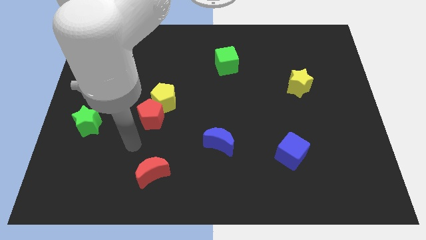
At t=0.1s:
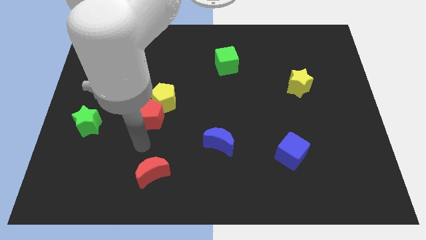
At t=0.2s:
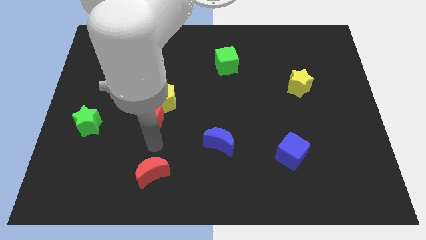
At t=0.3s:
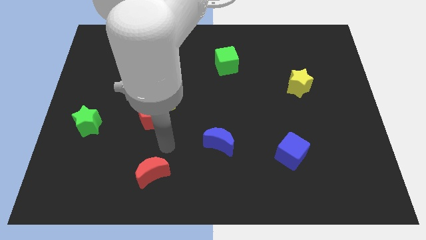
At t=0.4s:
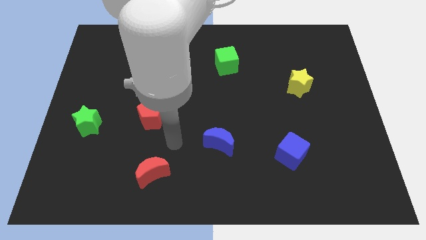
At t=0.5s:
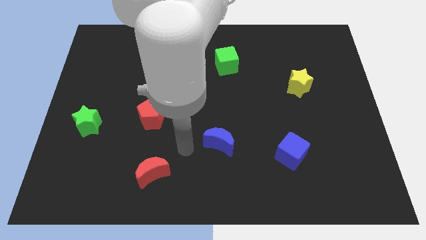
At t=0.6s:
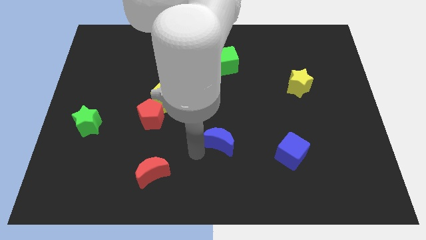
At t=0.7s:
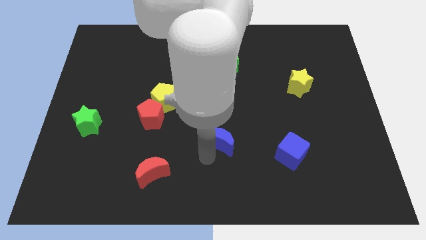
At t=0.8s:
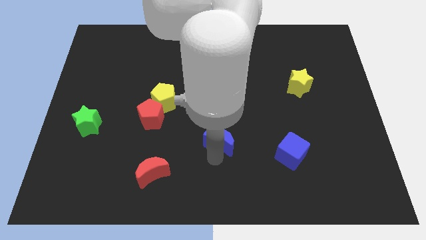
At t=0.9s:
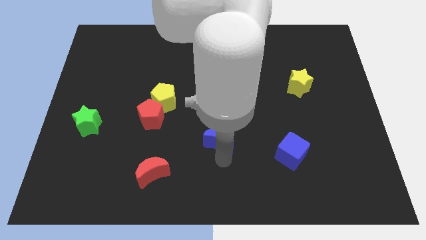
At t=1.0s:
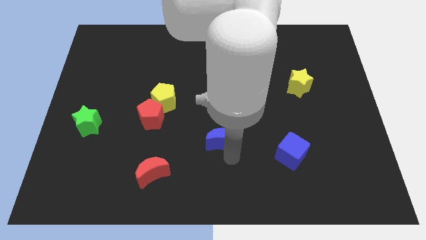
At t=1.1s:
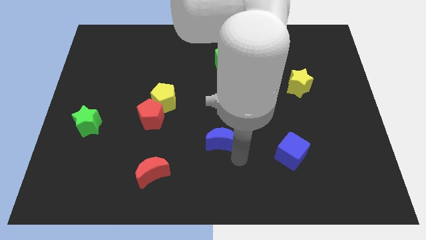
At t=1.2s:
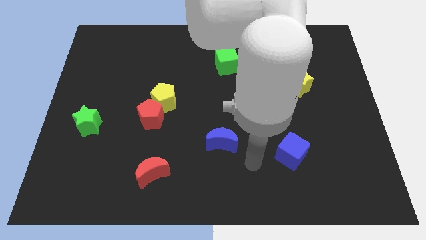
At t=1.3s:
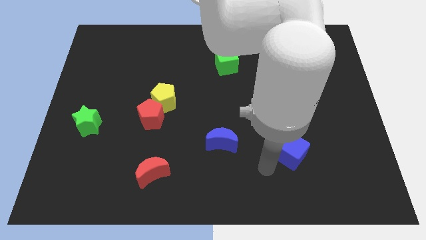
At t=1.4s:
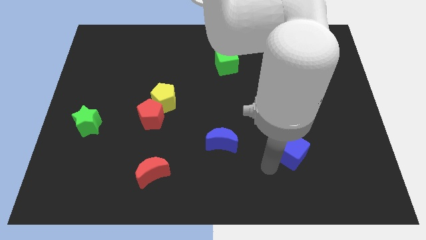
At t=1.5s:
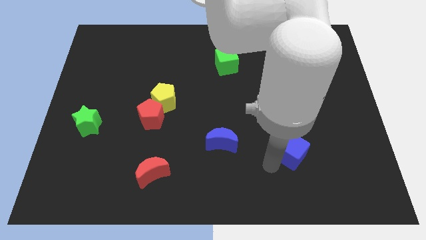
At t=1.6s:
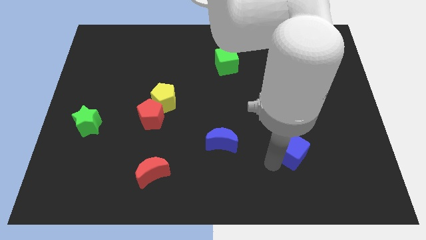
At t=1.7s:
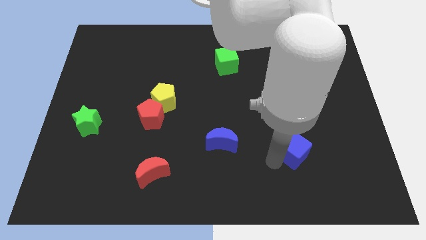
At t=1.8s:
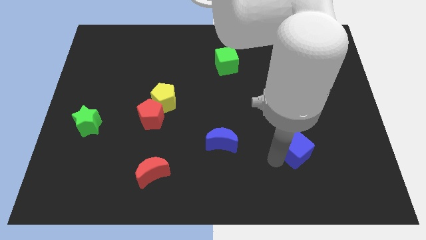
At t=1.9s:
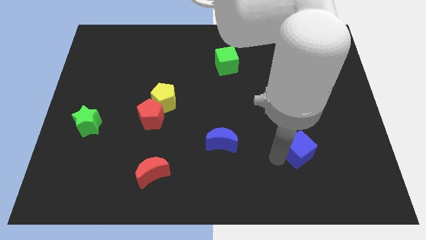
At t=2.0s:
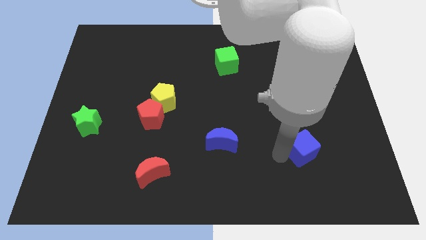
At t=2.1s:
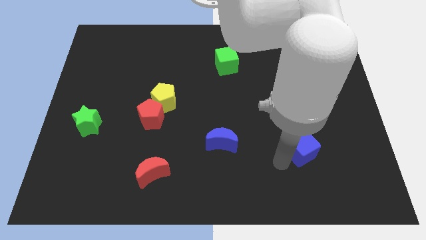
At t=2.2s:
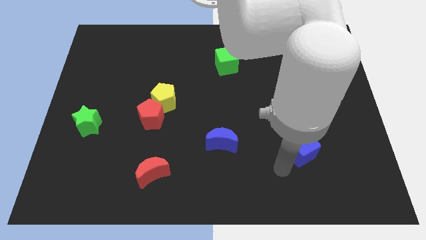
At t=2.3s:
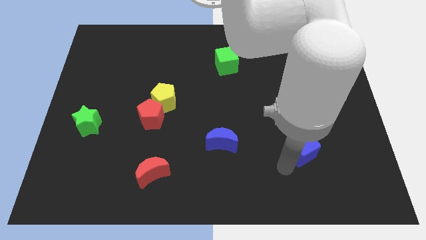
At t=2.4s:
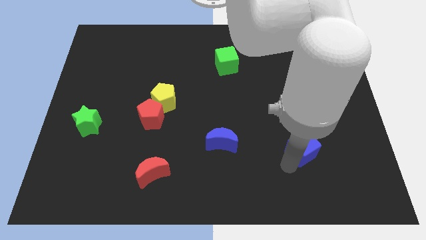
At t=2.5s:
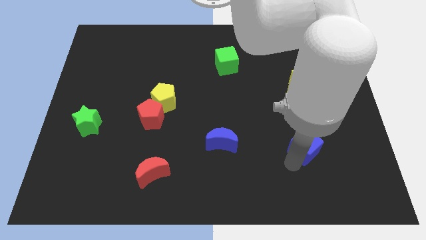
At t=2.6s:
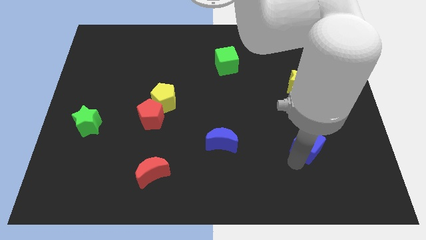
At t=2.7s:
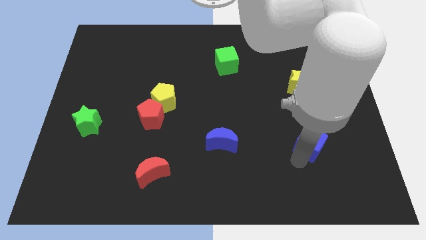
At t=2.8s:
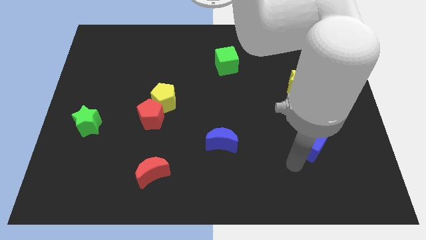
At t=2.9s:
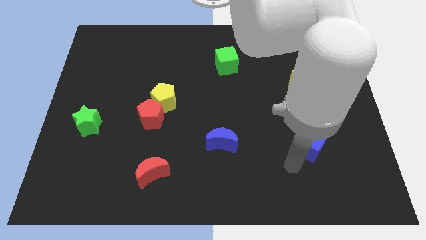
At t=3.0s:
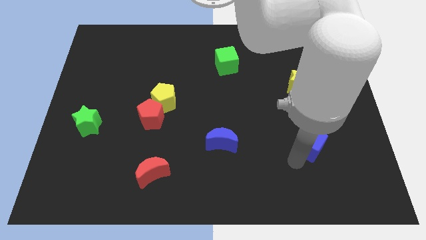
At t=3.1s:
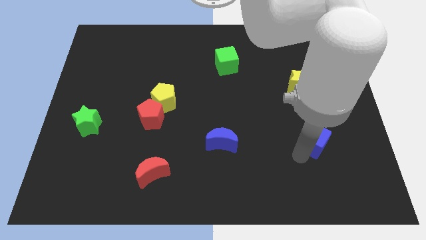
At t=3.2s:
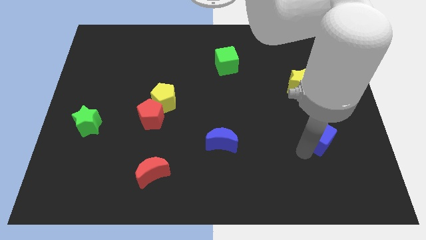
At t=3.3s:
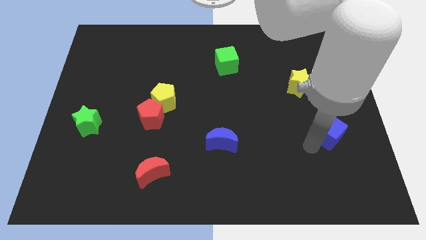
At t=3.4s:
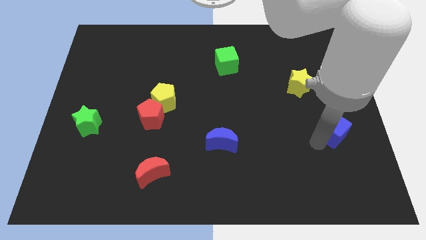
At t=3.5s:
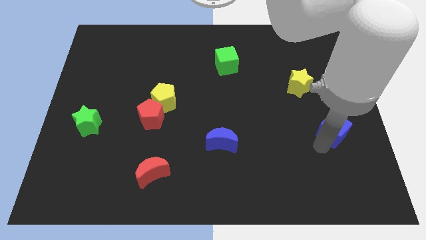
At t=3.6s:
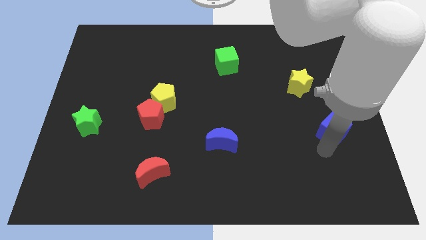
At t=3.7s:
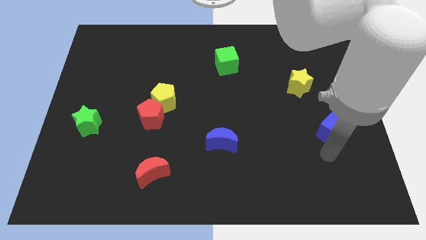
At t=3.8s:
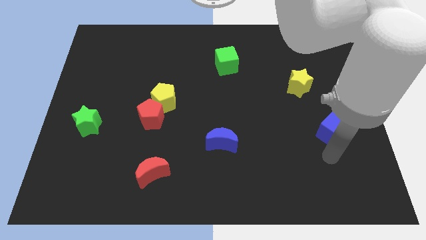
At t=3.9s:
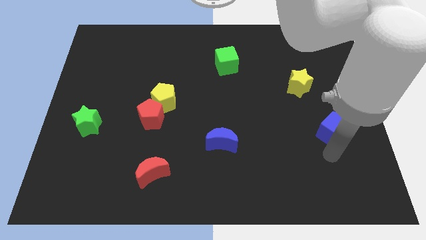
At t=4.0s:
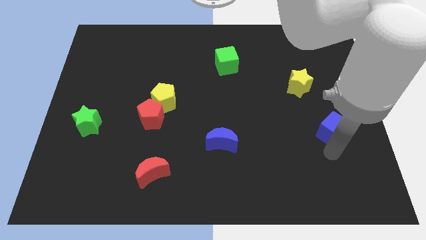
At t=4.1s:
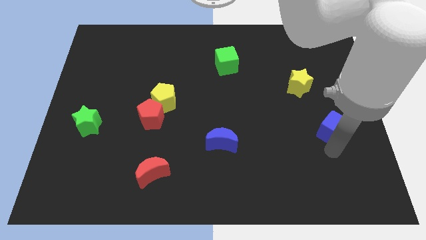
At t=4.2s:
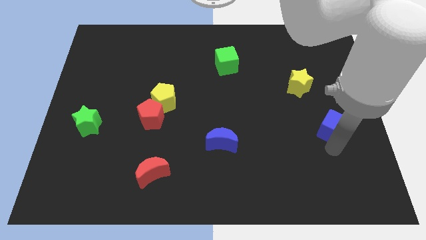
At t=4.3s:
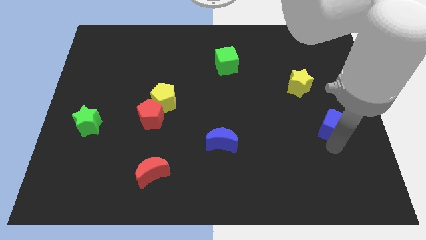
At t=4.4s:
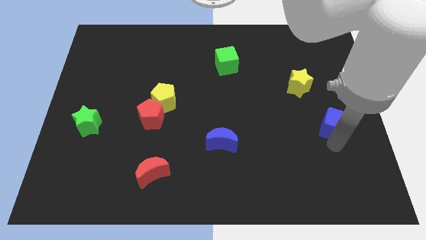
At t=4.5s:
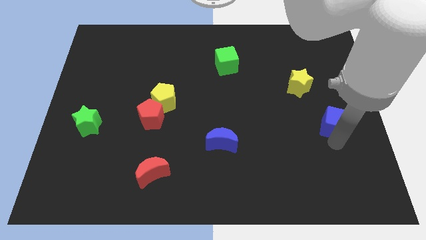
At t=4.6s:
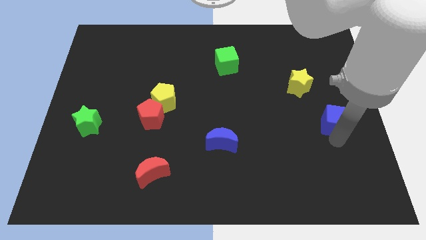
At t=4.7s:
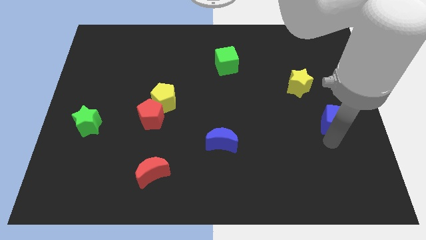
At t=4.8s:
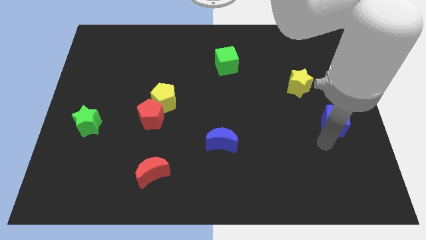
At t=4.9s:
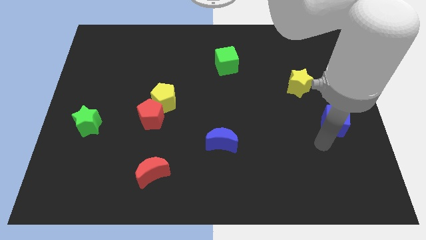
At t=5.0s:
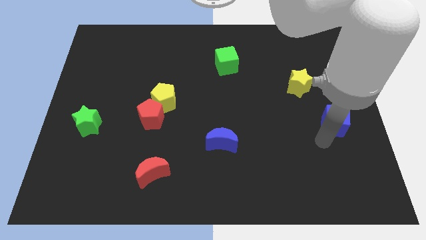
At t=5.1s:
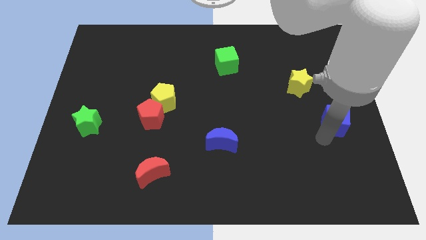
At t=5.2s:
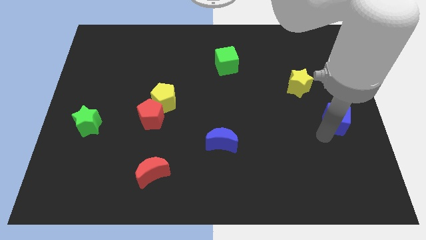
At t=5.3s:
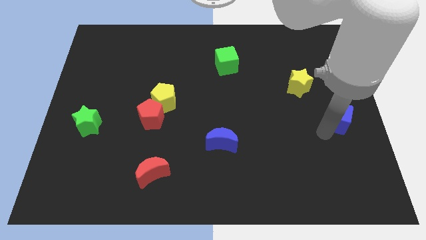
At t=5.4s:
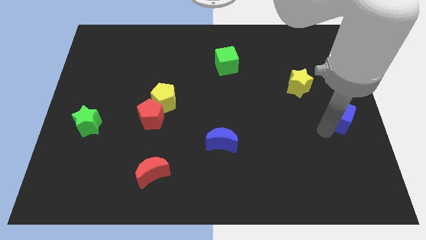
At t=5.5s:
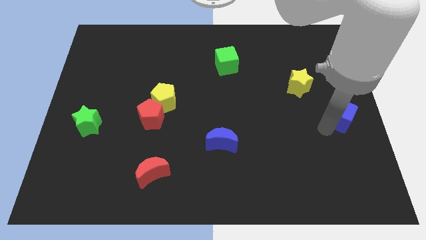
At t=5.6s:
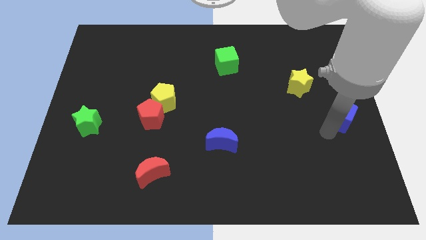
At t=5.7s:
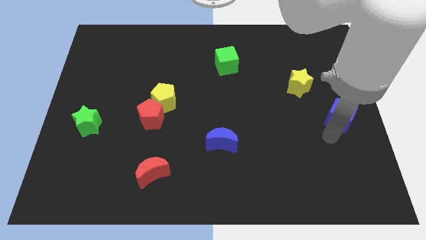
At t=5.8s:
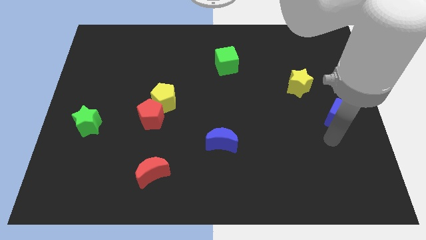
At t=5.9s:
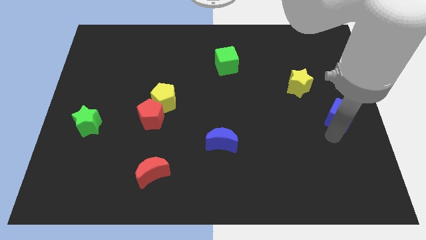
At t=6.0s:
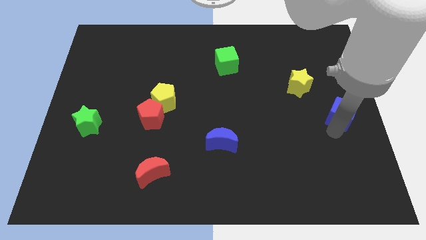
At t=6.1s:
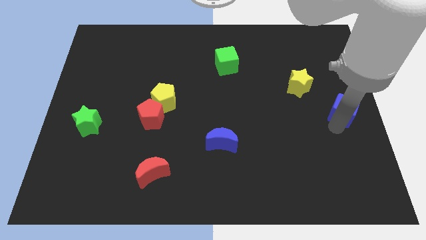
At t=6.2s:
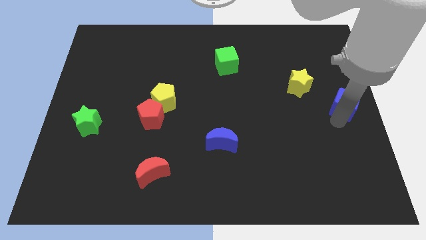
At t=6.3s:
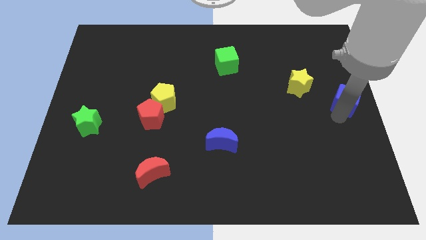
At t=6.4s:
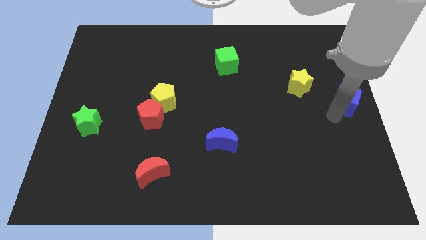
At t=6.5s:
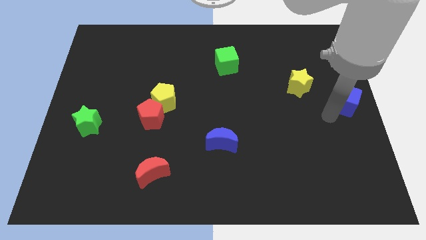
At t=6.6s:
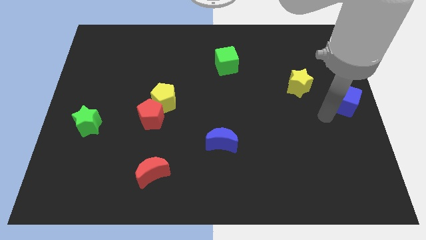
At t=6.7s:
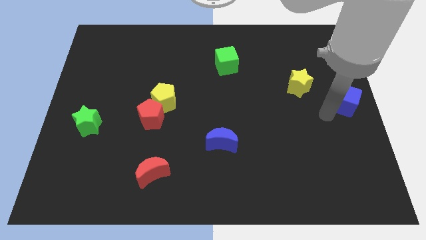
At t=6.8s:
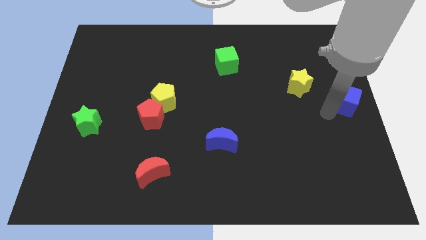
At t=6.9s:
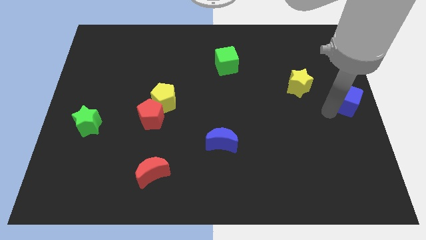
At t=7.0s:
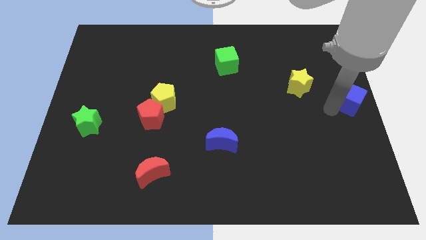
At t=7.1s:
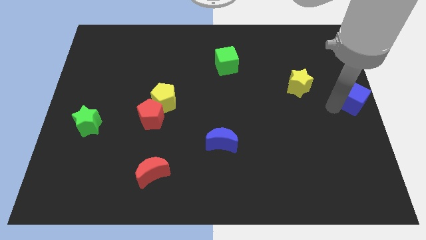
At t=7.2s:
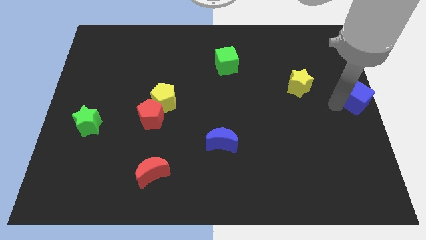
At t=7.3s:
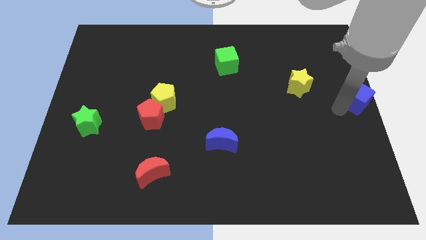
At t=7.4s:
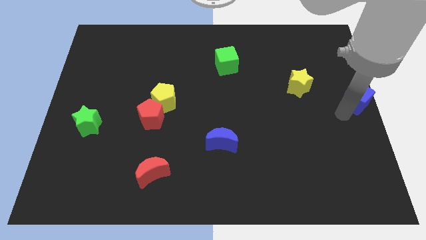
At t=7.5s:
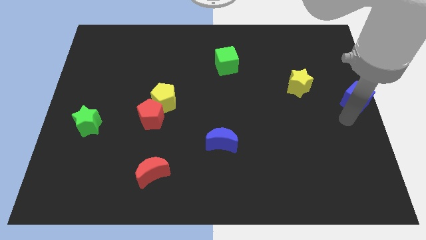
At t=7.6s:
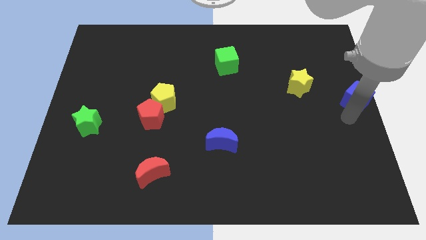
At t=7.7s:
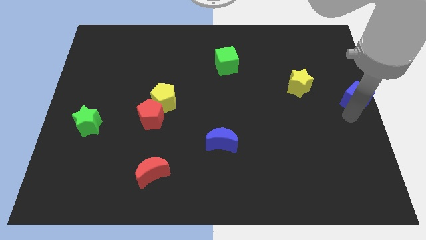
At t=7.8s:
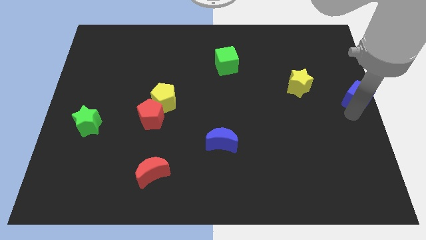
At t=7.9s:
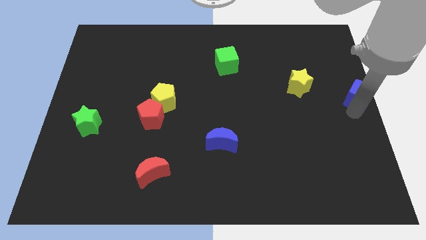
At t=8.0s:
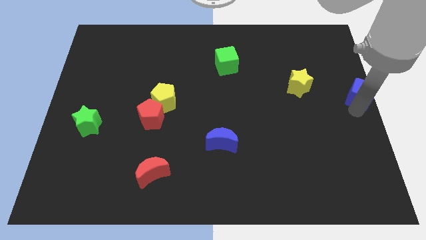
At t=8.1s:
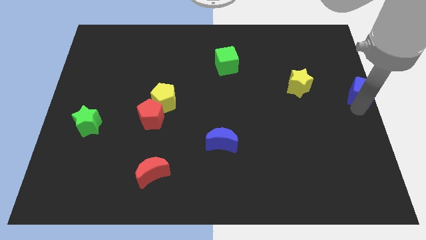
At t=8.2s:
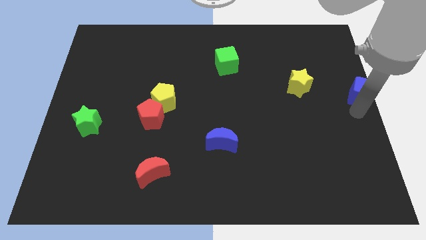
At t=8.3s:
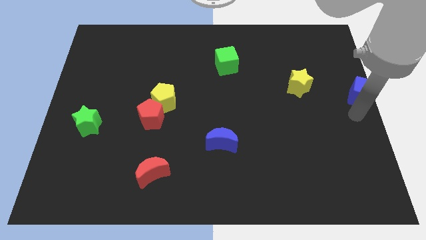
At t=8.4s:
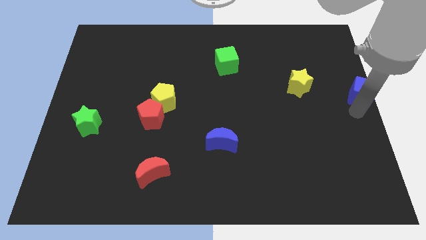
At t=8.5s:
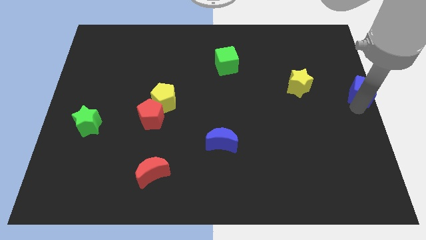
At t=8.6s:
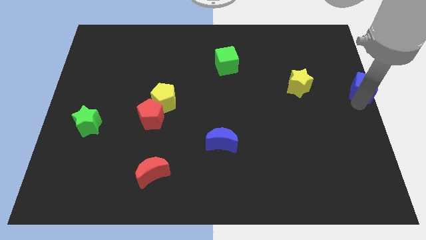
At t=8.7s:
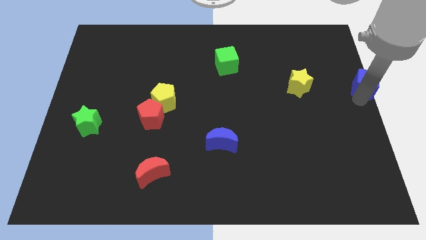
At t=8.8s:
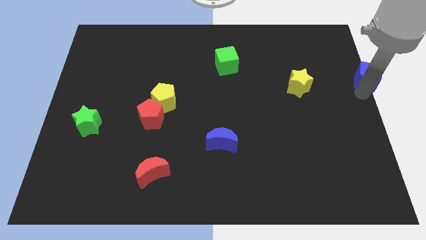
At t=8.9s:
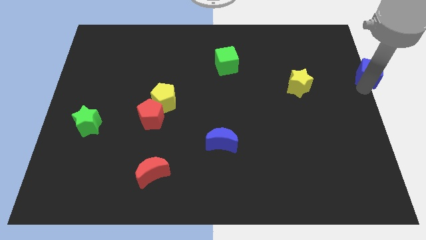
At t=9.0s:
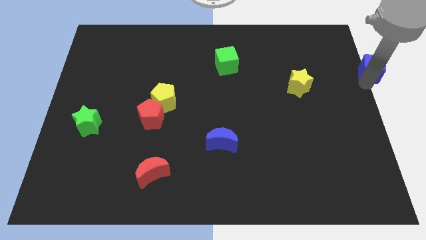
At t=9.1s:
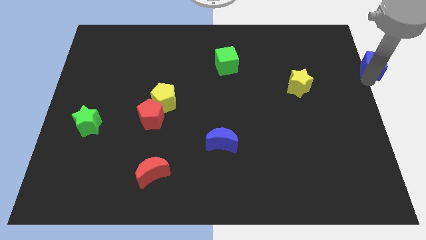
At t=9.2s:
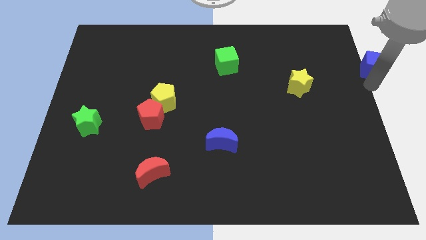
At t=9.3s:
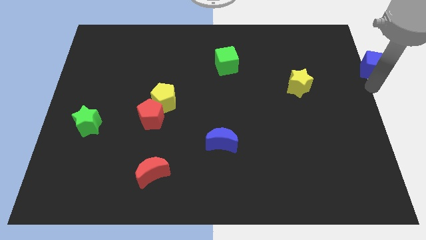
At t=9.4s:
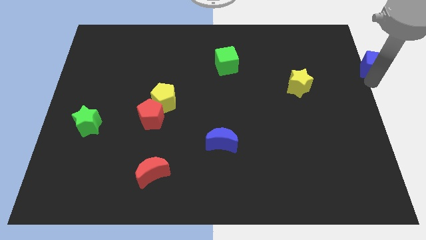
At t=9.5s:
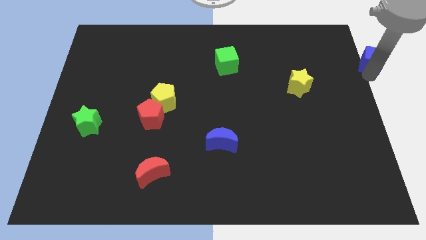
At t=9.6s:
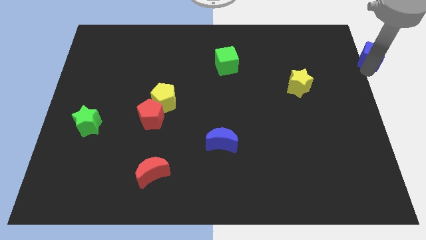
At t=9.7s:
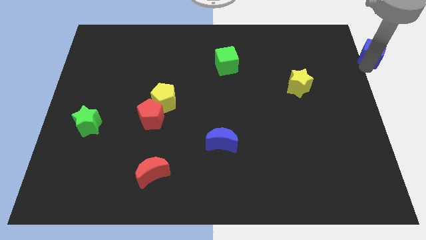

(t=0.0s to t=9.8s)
put the blue cube to the top right
